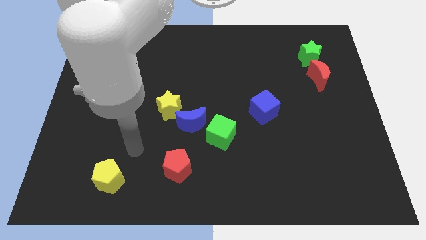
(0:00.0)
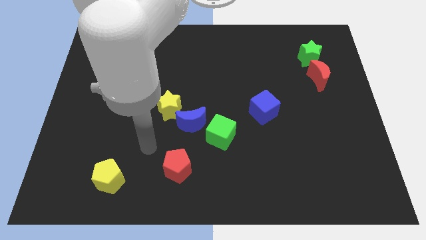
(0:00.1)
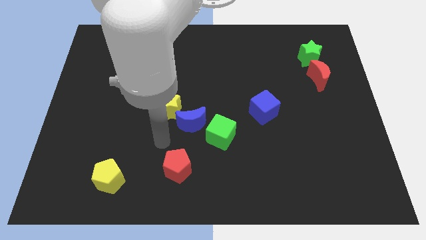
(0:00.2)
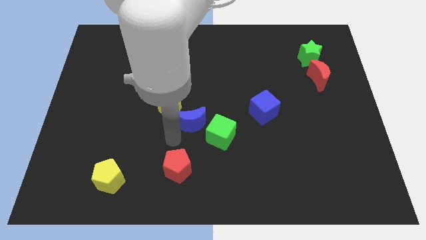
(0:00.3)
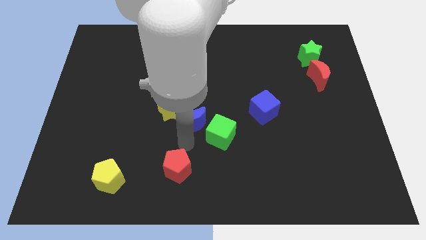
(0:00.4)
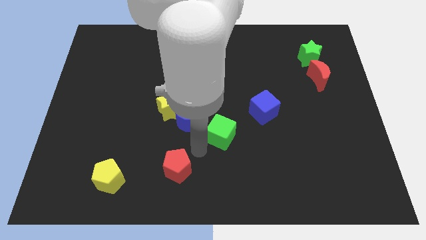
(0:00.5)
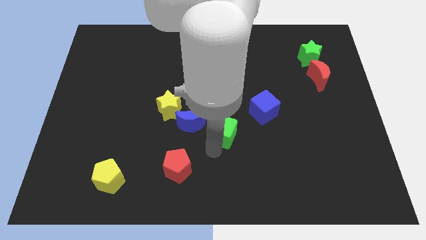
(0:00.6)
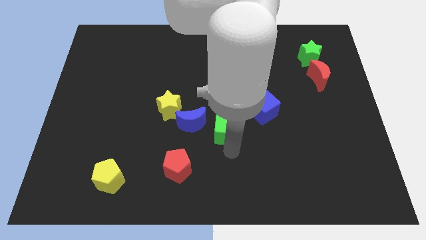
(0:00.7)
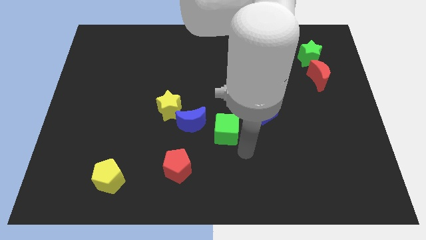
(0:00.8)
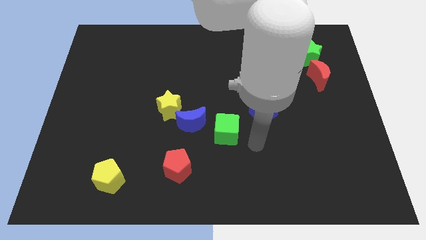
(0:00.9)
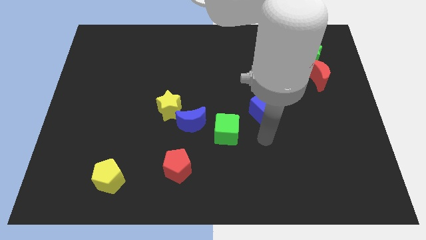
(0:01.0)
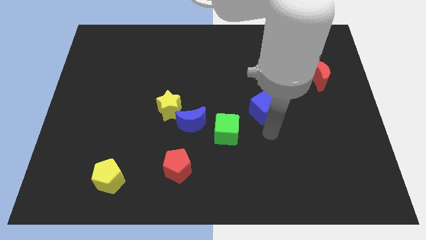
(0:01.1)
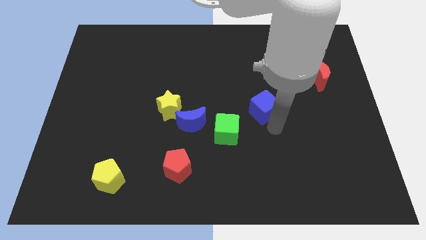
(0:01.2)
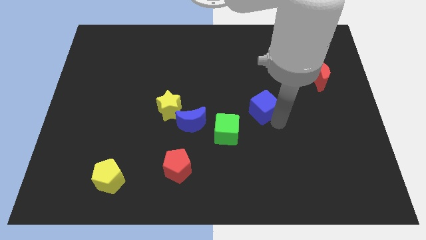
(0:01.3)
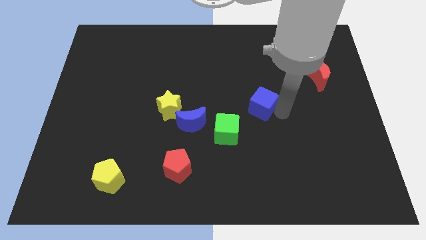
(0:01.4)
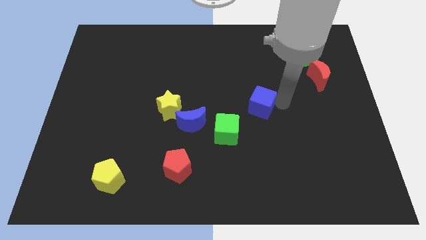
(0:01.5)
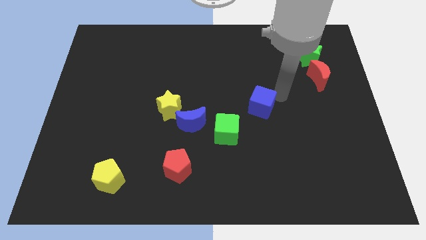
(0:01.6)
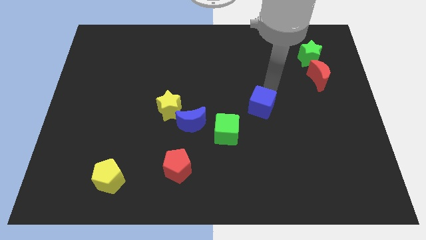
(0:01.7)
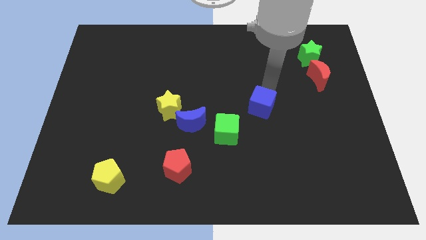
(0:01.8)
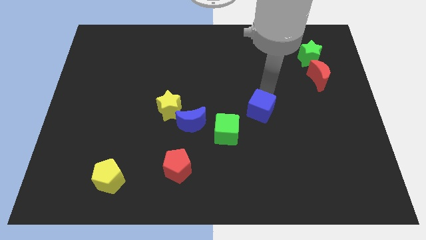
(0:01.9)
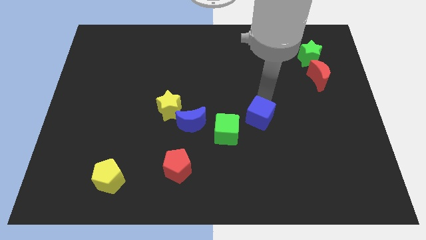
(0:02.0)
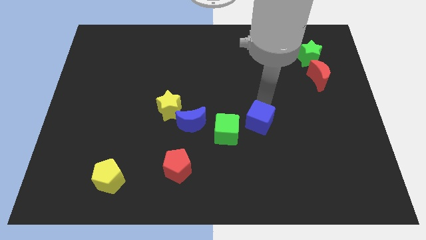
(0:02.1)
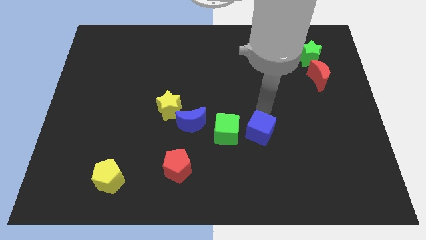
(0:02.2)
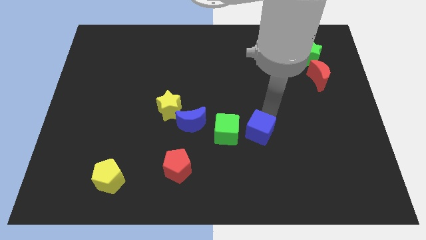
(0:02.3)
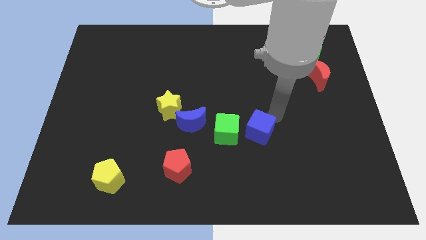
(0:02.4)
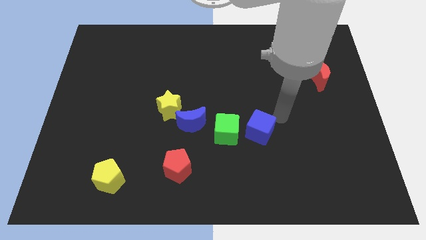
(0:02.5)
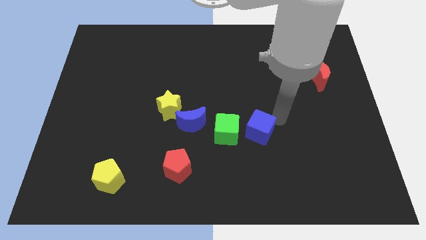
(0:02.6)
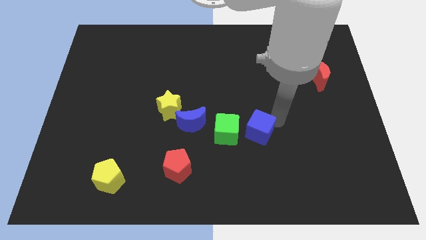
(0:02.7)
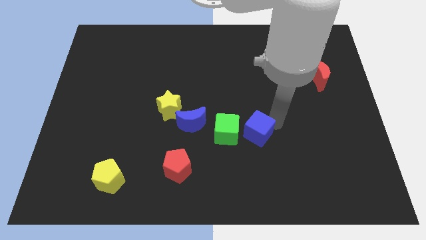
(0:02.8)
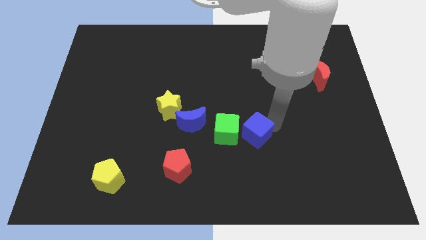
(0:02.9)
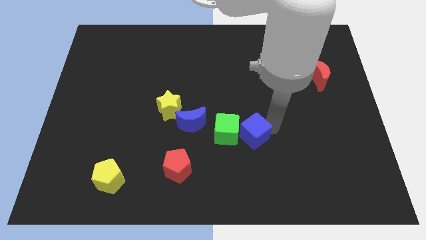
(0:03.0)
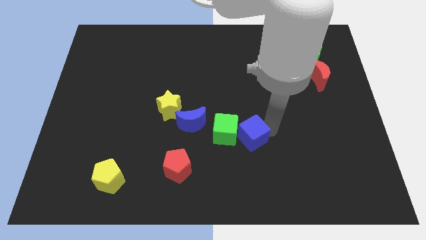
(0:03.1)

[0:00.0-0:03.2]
slightly push the blue cube diagonally downwards and left

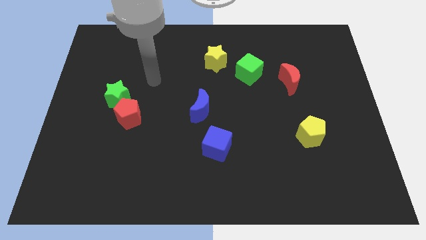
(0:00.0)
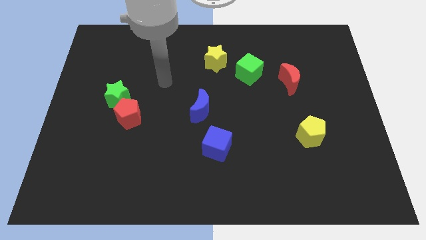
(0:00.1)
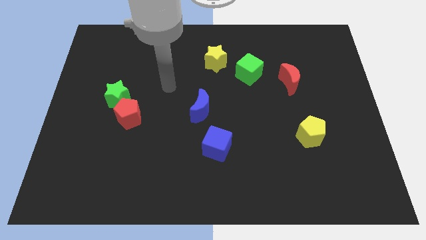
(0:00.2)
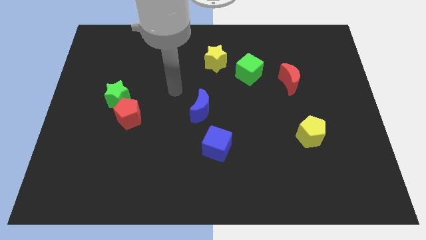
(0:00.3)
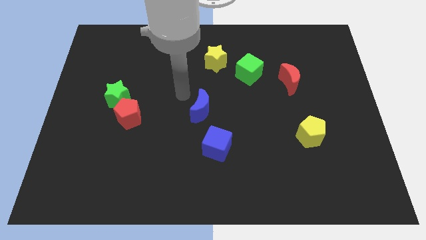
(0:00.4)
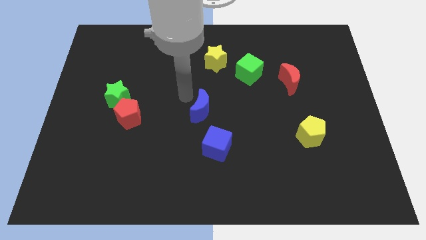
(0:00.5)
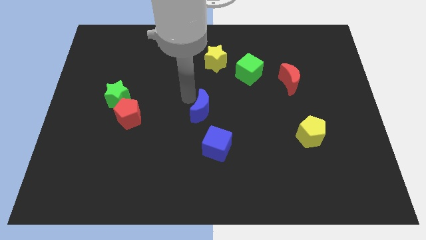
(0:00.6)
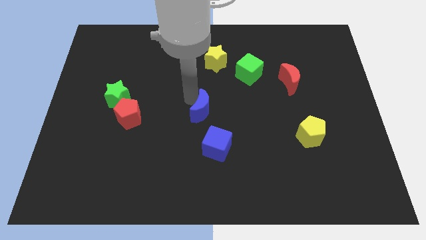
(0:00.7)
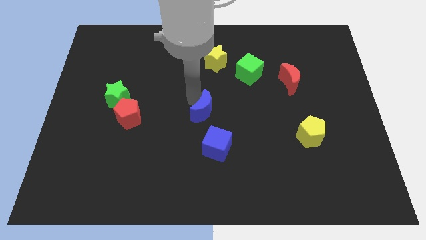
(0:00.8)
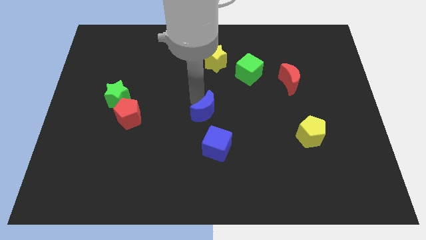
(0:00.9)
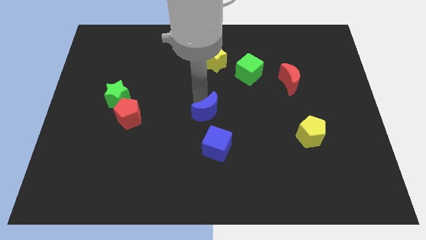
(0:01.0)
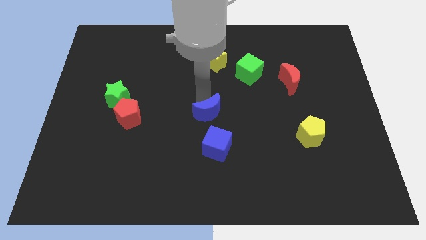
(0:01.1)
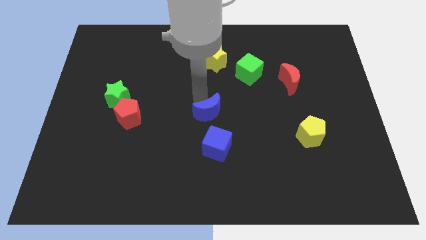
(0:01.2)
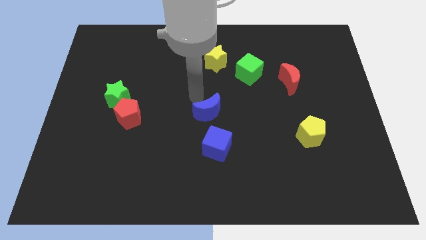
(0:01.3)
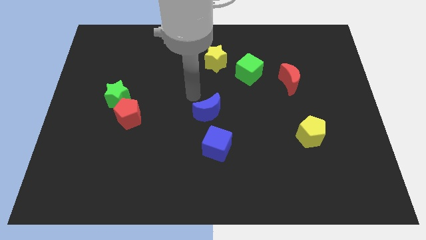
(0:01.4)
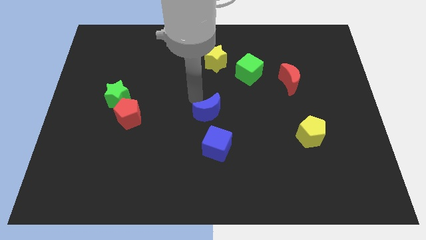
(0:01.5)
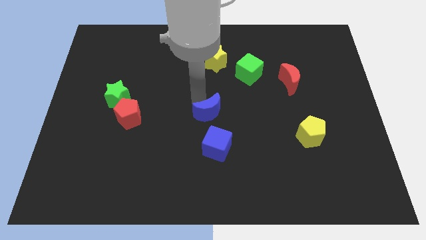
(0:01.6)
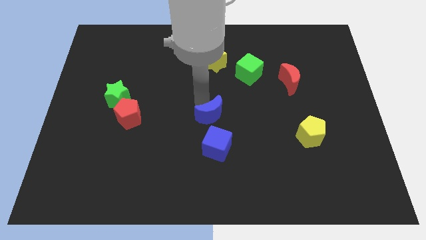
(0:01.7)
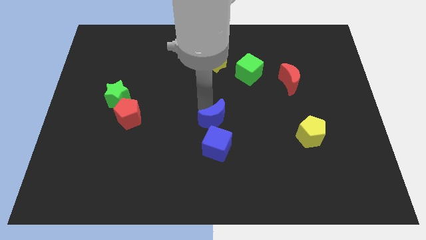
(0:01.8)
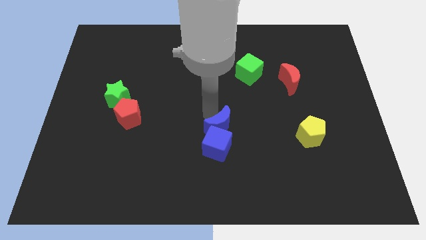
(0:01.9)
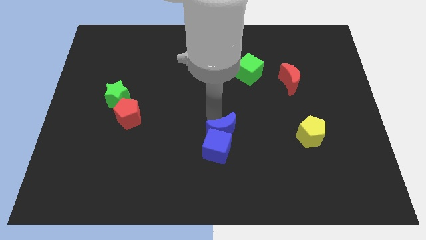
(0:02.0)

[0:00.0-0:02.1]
slightly push the blue moon downwards and to the right diagonally

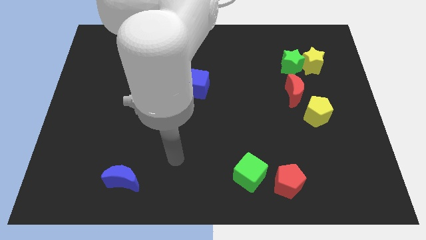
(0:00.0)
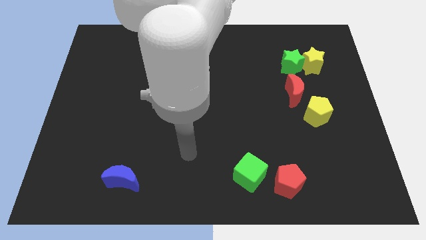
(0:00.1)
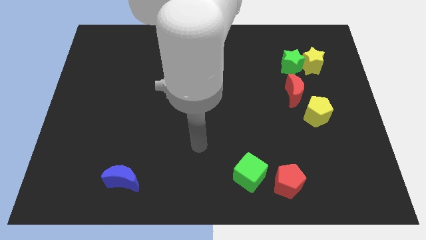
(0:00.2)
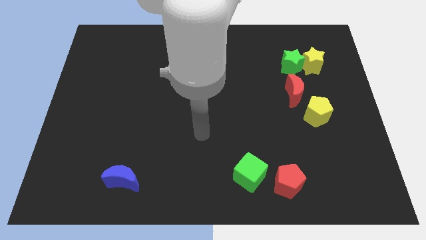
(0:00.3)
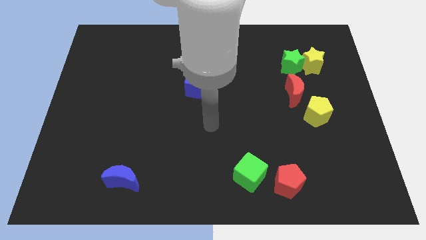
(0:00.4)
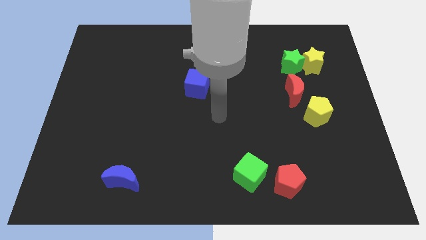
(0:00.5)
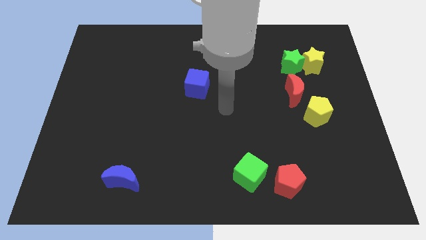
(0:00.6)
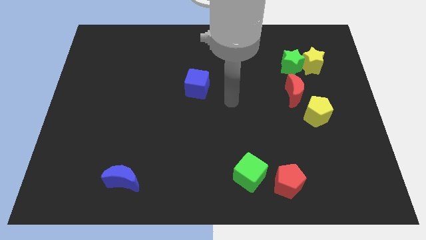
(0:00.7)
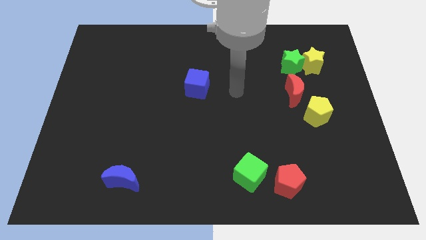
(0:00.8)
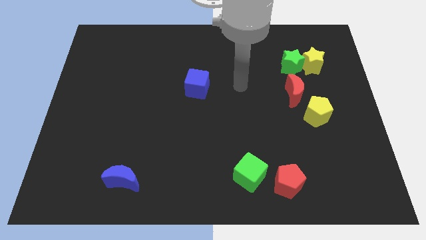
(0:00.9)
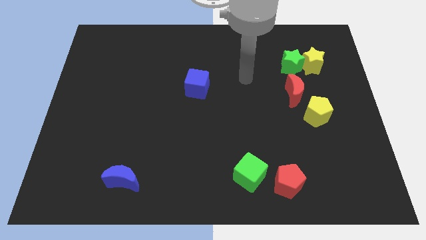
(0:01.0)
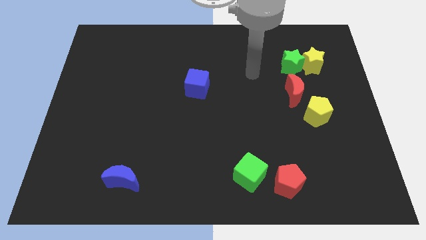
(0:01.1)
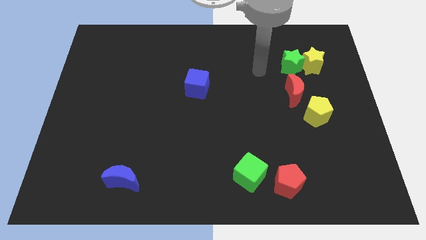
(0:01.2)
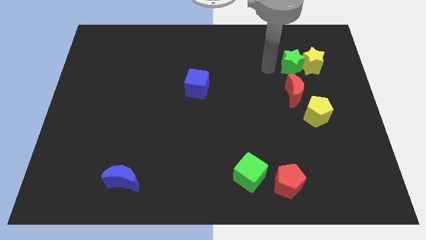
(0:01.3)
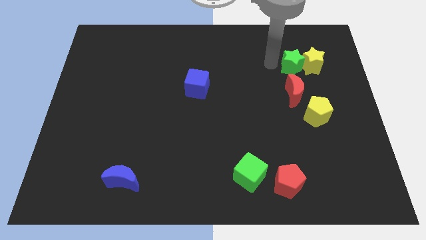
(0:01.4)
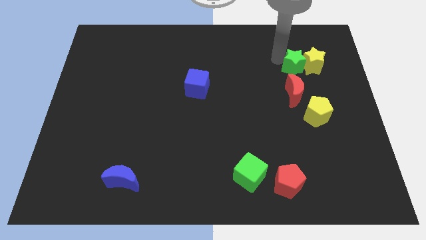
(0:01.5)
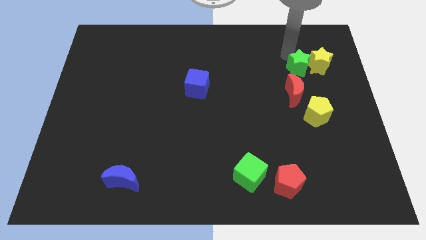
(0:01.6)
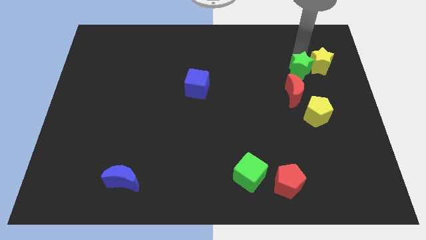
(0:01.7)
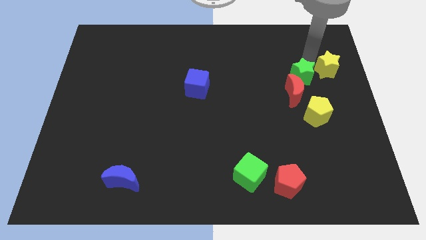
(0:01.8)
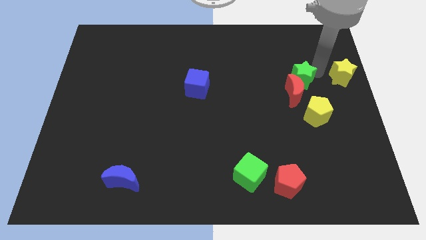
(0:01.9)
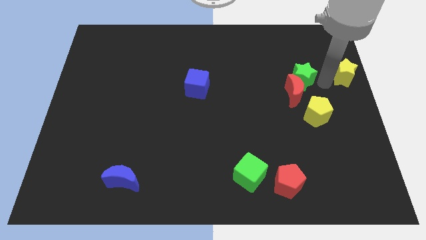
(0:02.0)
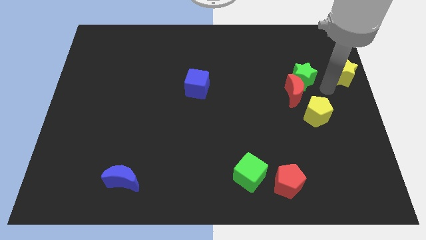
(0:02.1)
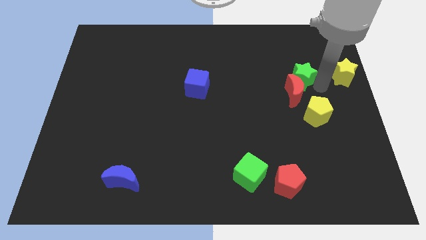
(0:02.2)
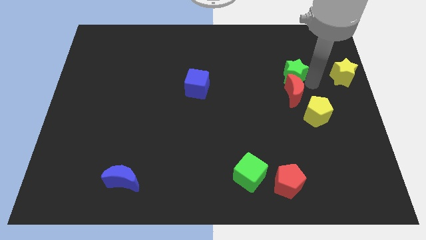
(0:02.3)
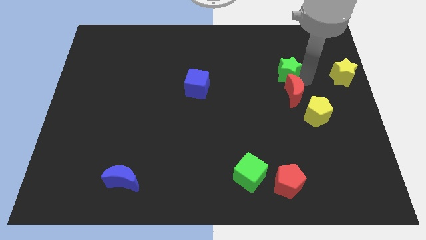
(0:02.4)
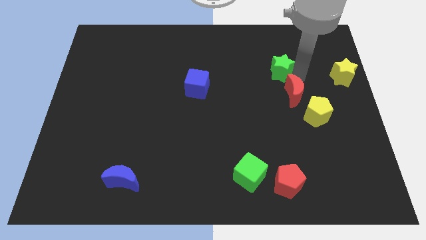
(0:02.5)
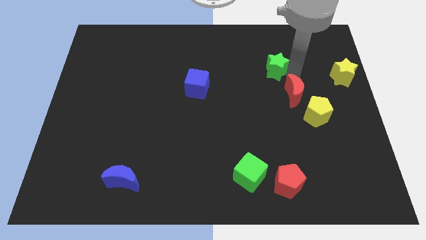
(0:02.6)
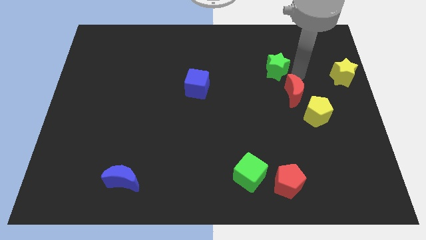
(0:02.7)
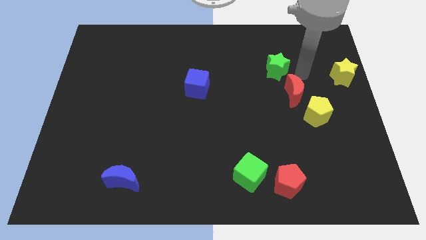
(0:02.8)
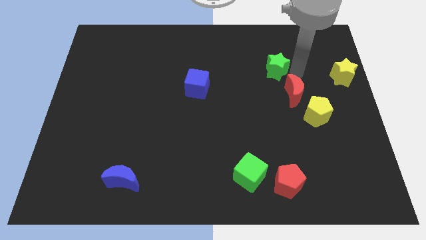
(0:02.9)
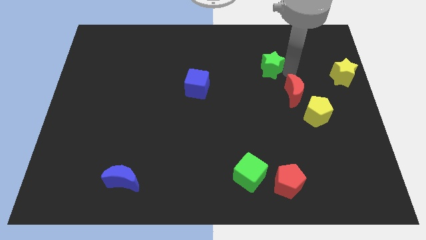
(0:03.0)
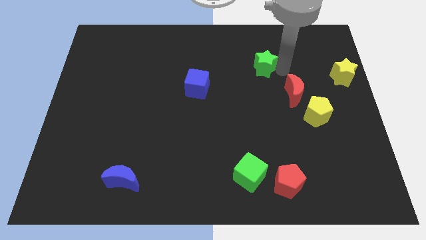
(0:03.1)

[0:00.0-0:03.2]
push the green star slightly to the left
